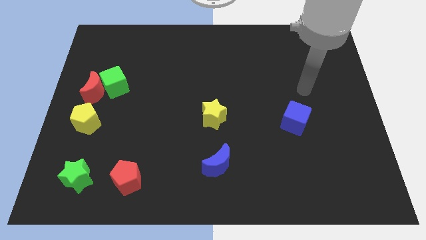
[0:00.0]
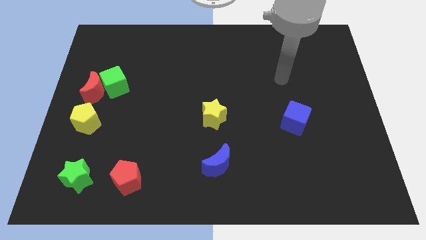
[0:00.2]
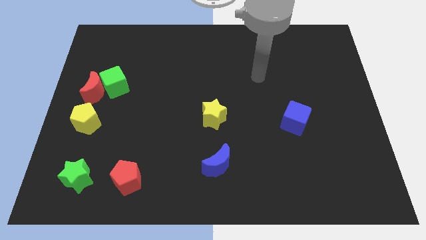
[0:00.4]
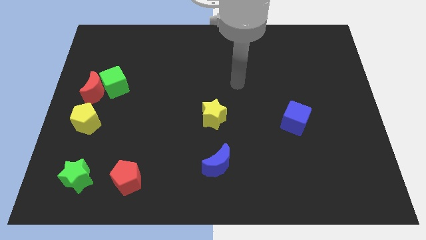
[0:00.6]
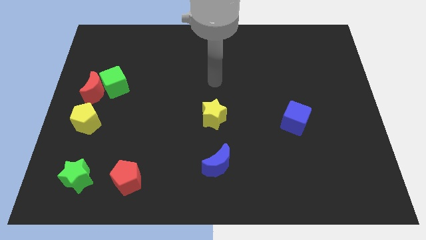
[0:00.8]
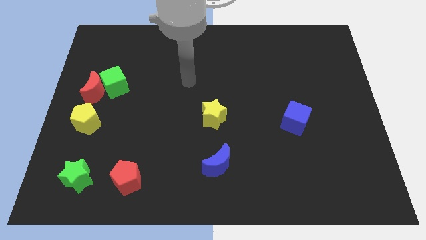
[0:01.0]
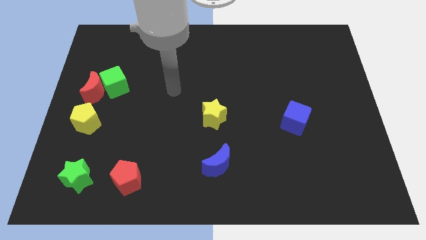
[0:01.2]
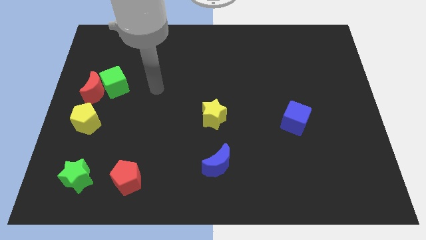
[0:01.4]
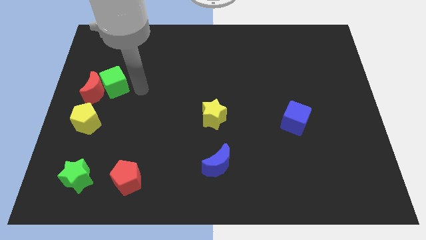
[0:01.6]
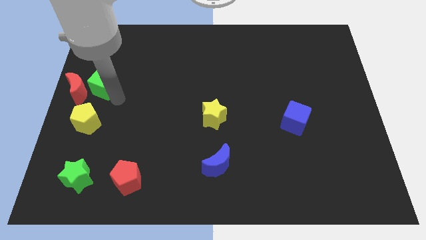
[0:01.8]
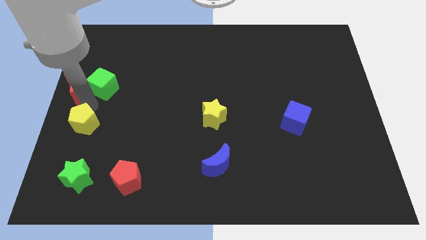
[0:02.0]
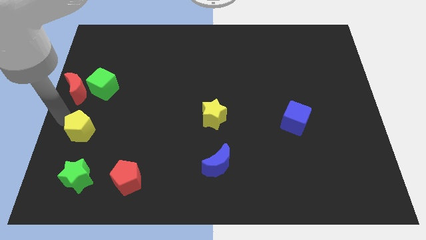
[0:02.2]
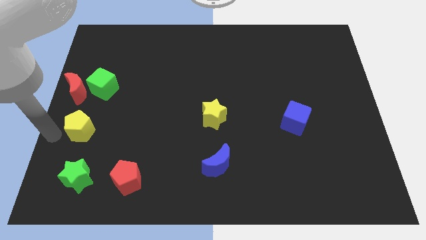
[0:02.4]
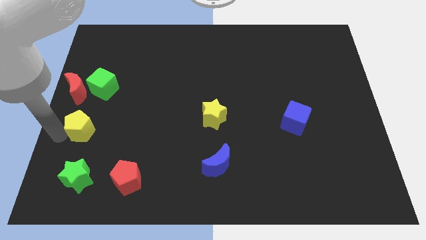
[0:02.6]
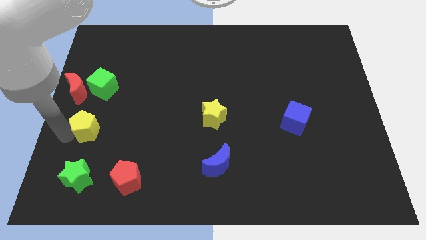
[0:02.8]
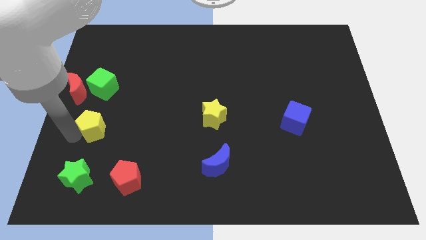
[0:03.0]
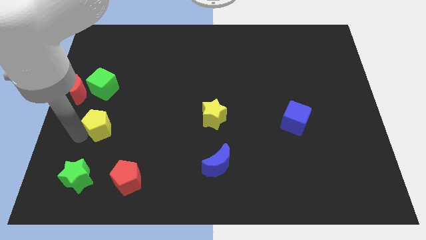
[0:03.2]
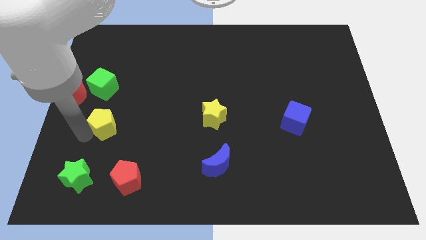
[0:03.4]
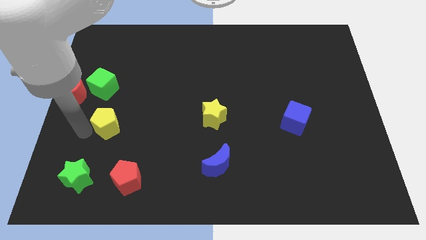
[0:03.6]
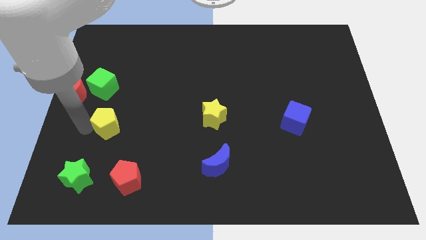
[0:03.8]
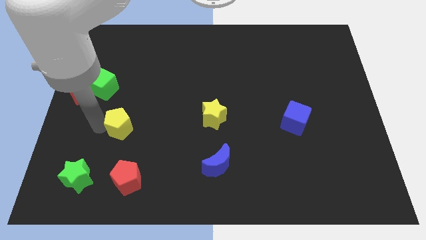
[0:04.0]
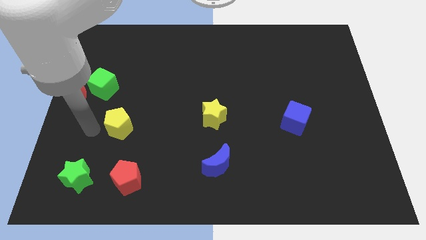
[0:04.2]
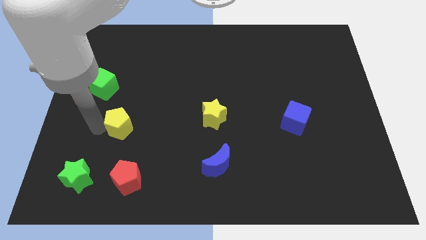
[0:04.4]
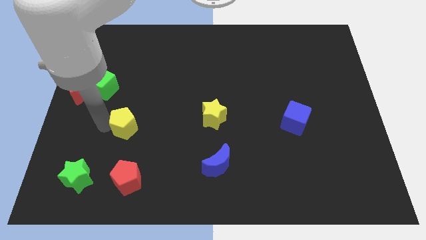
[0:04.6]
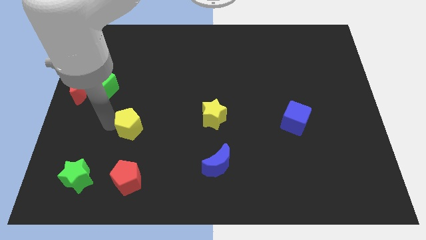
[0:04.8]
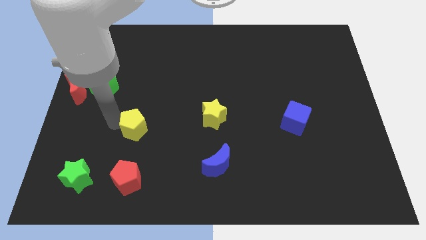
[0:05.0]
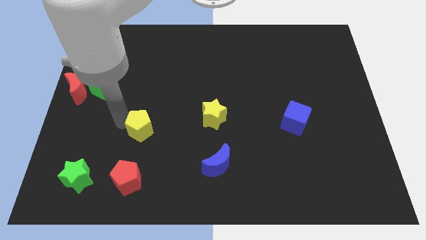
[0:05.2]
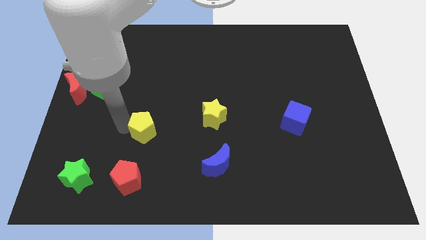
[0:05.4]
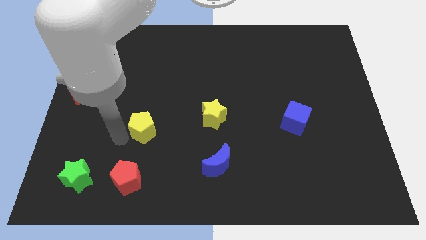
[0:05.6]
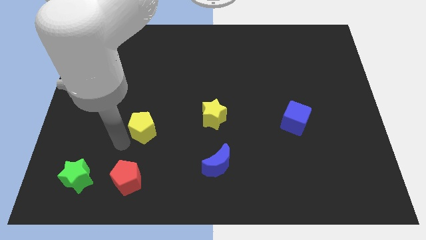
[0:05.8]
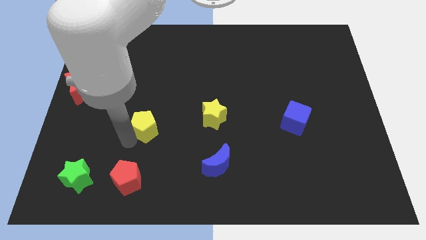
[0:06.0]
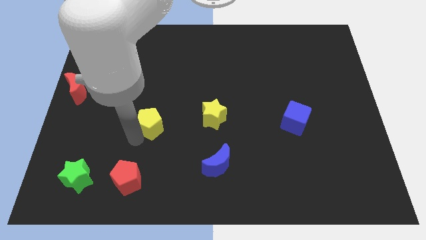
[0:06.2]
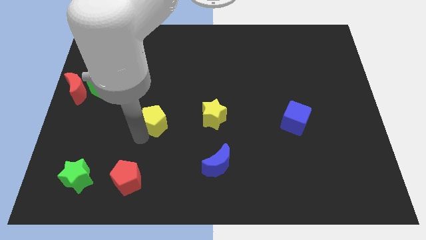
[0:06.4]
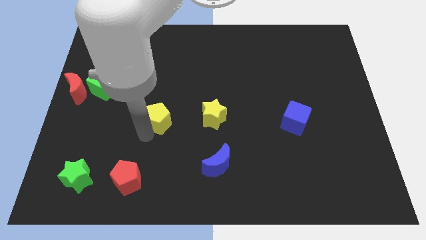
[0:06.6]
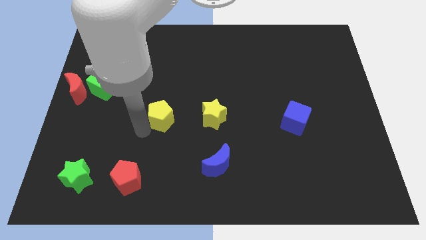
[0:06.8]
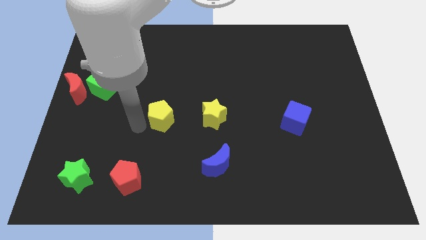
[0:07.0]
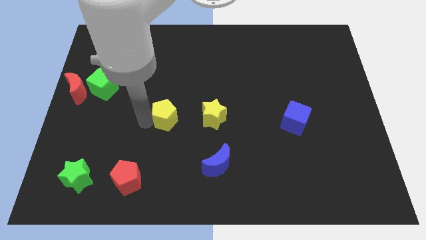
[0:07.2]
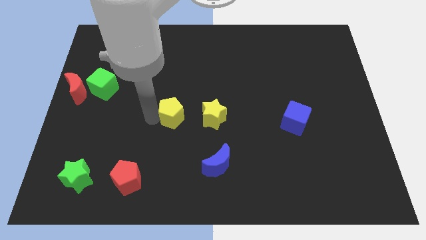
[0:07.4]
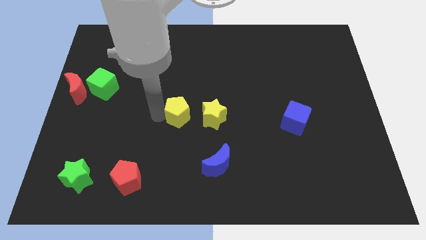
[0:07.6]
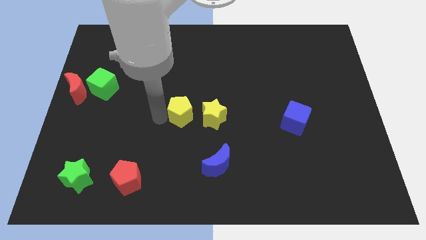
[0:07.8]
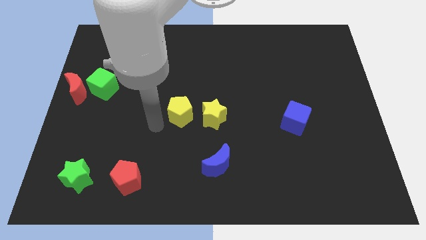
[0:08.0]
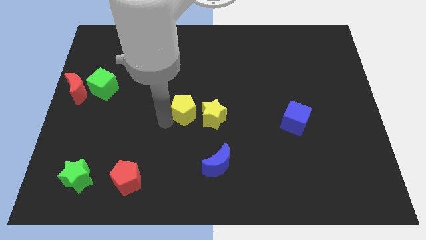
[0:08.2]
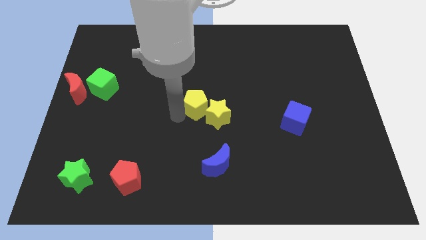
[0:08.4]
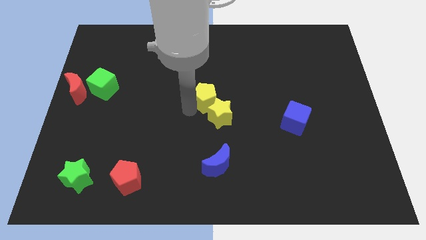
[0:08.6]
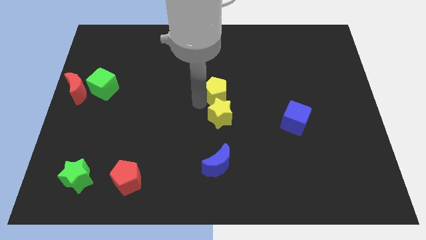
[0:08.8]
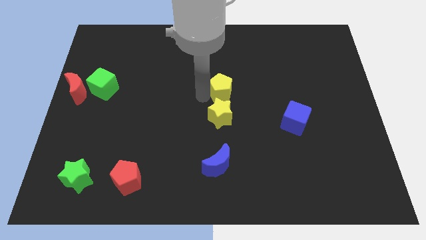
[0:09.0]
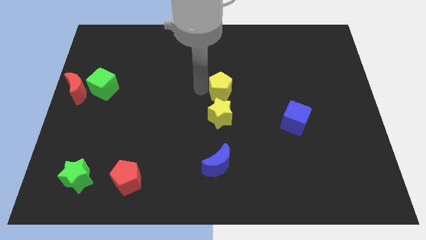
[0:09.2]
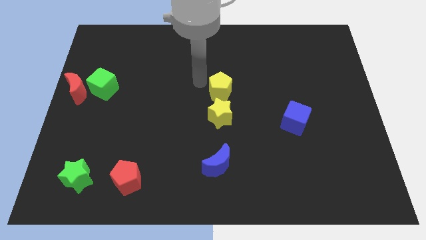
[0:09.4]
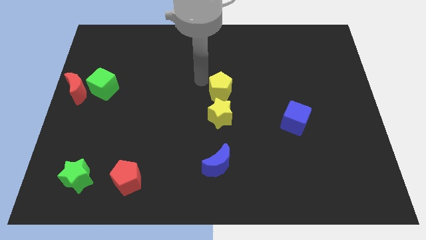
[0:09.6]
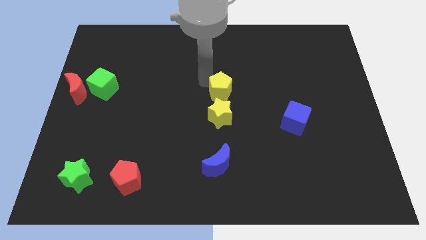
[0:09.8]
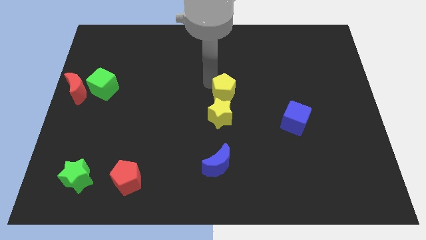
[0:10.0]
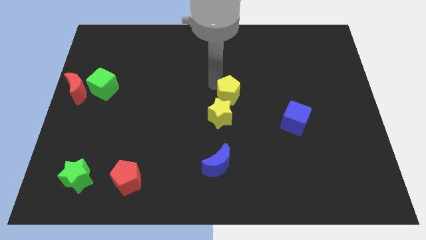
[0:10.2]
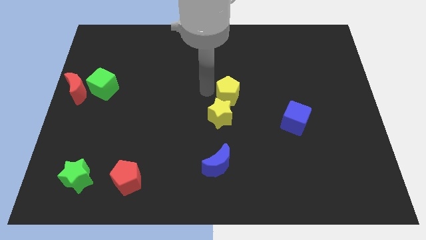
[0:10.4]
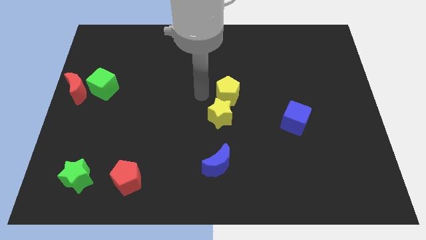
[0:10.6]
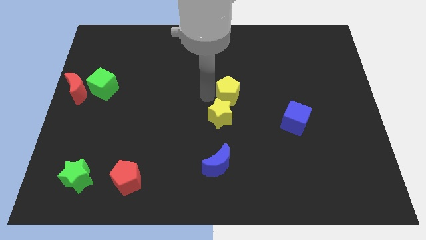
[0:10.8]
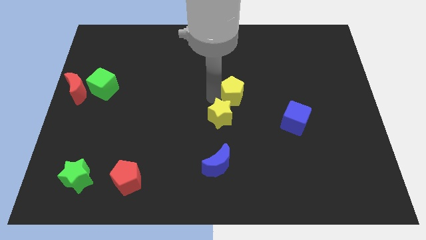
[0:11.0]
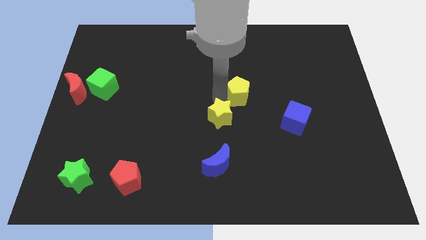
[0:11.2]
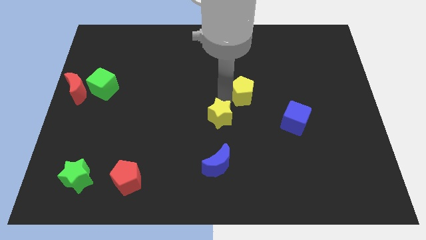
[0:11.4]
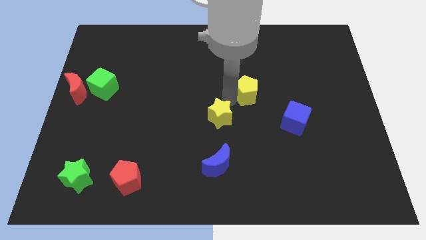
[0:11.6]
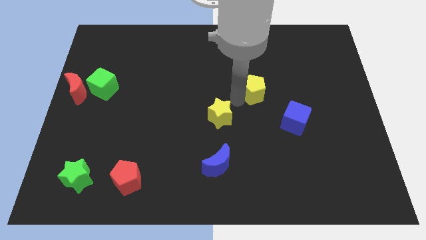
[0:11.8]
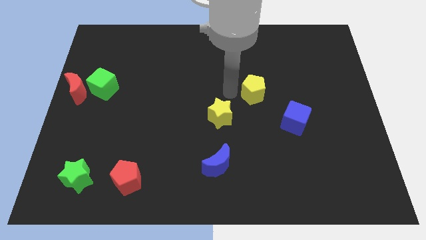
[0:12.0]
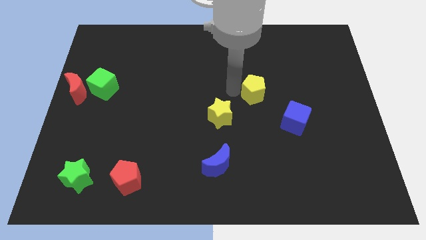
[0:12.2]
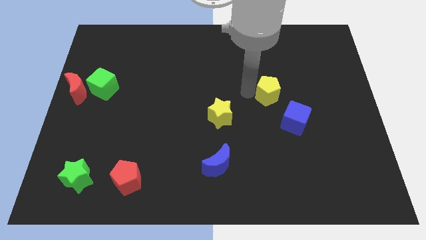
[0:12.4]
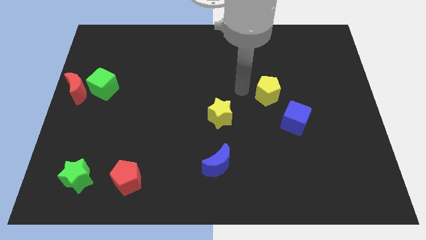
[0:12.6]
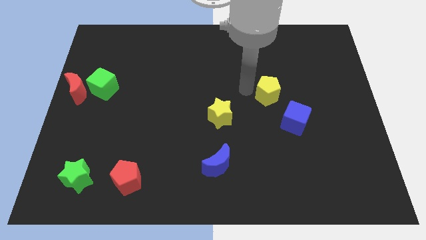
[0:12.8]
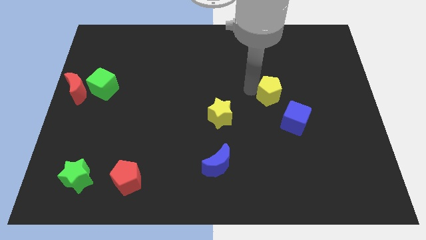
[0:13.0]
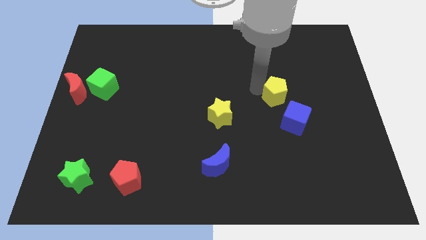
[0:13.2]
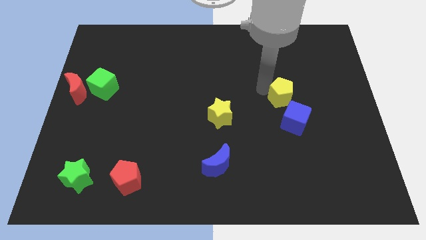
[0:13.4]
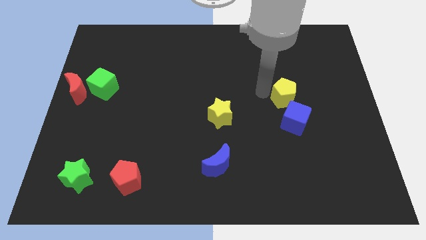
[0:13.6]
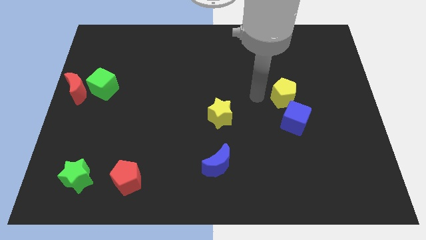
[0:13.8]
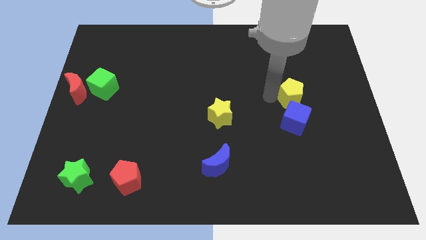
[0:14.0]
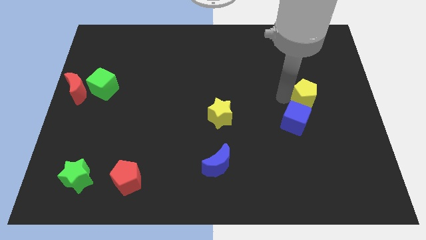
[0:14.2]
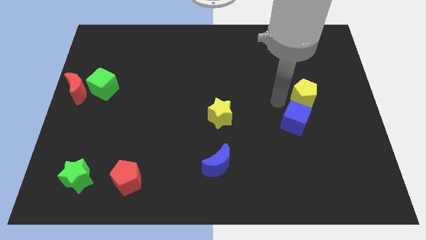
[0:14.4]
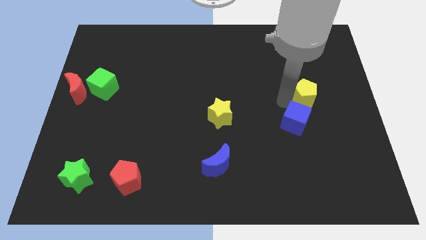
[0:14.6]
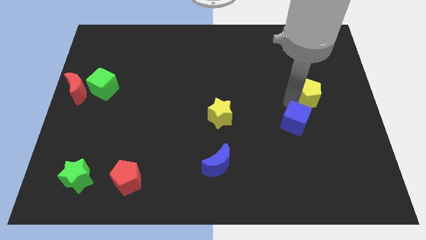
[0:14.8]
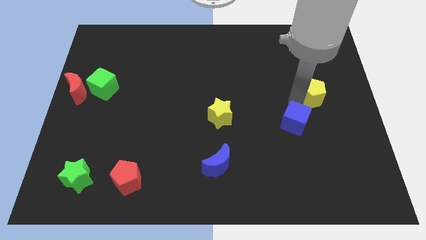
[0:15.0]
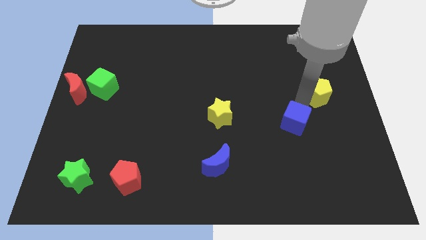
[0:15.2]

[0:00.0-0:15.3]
move the yellow pentagon to the center right
